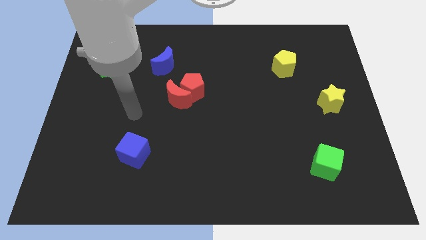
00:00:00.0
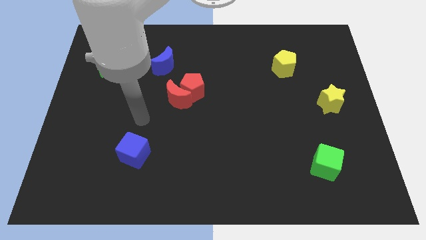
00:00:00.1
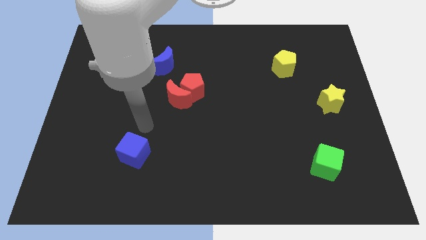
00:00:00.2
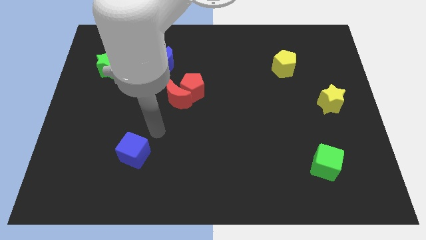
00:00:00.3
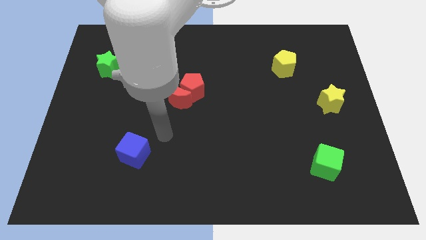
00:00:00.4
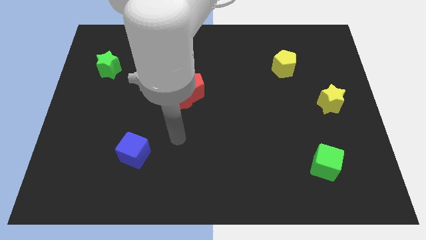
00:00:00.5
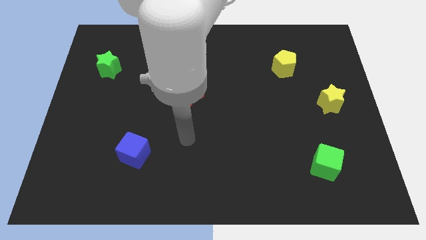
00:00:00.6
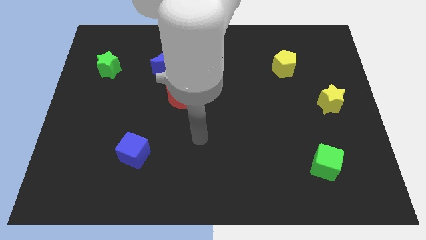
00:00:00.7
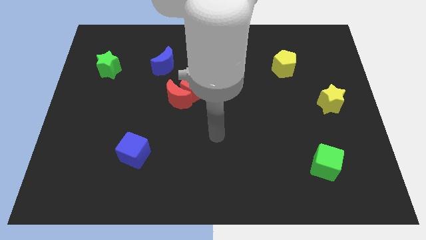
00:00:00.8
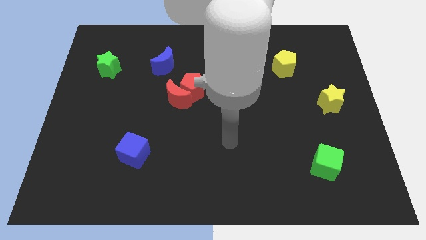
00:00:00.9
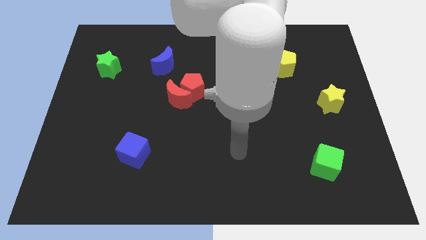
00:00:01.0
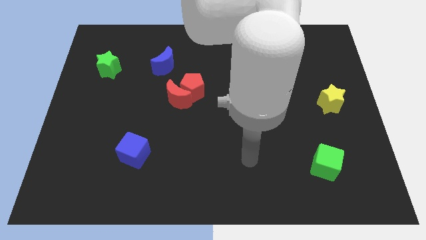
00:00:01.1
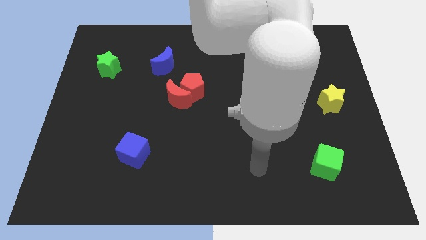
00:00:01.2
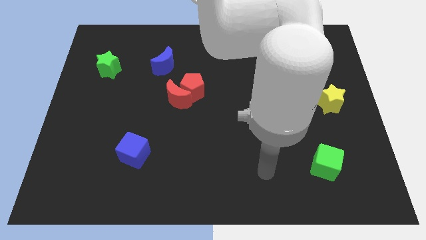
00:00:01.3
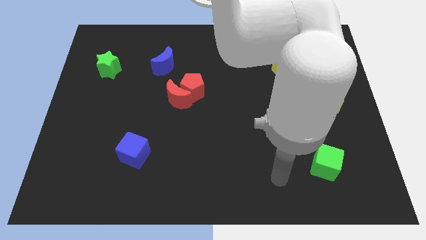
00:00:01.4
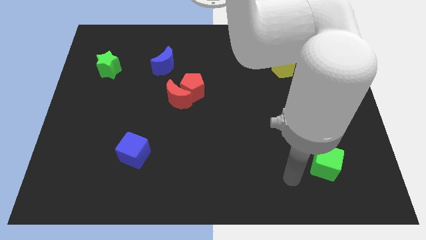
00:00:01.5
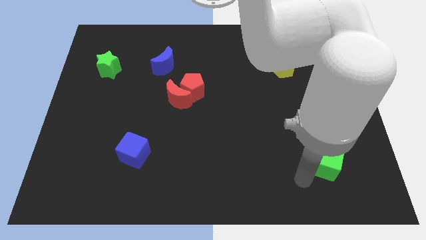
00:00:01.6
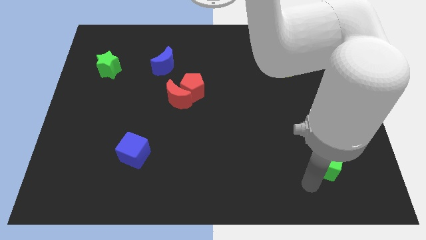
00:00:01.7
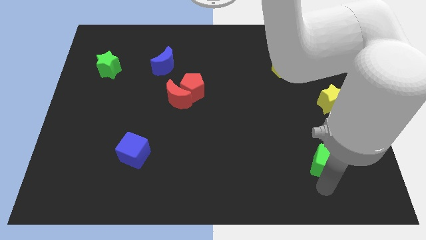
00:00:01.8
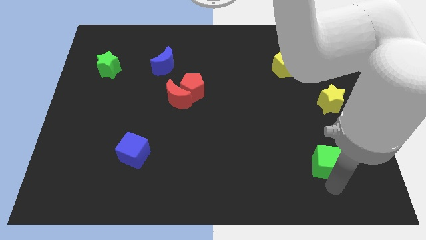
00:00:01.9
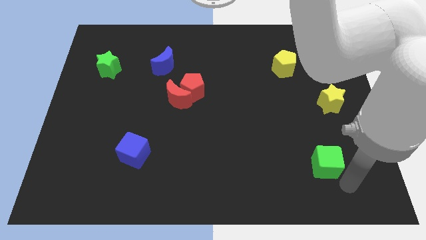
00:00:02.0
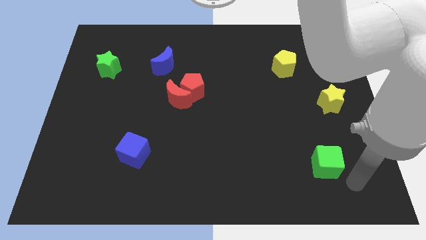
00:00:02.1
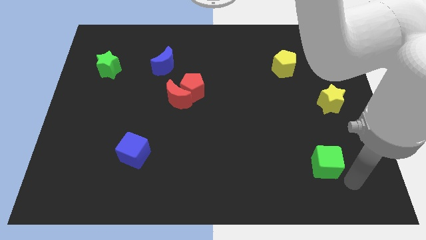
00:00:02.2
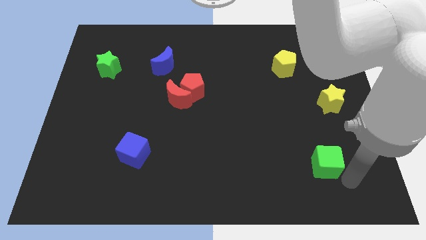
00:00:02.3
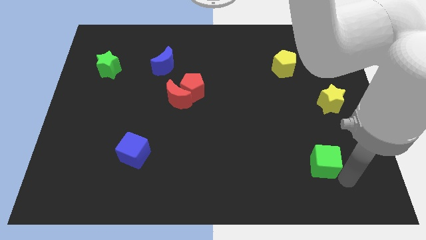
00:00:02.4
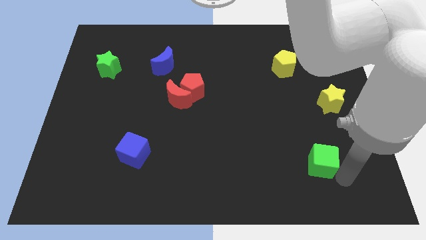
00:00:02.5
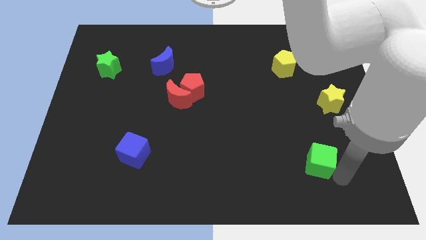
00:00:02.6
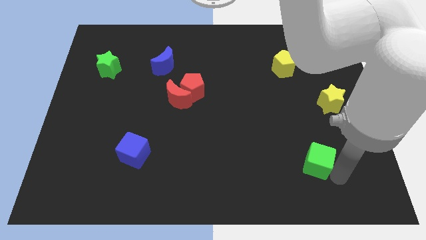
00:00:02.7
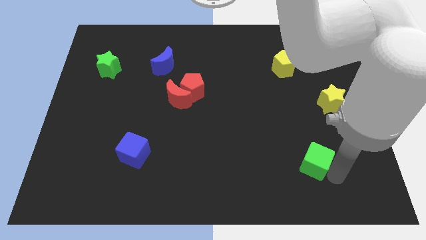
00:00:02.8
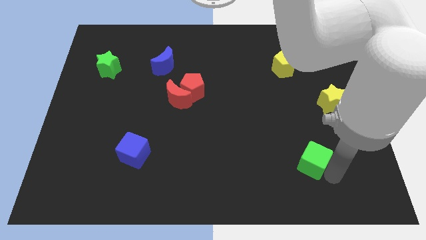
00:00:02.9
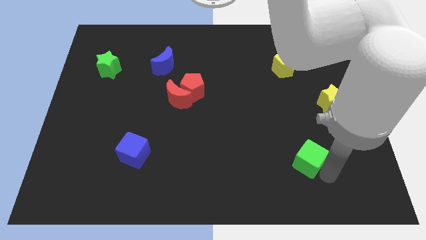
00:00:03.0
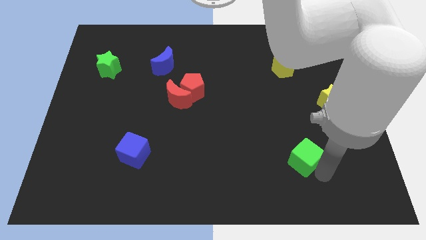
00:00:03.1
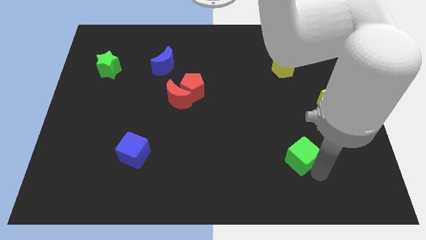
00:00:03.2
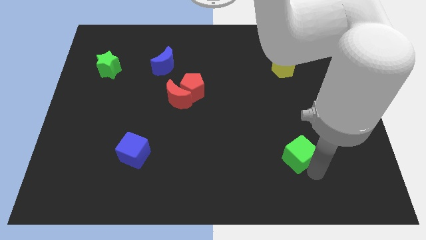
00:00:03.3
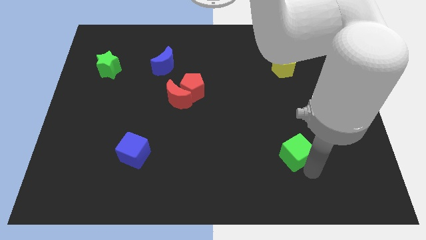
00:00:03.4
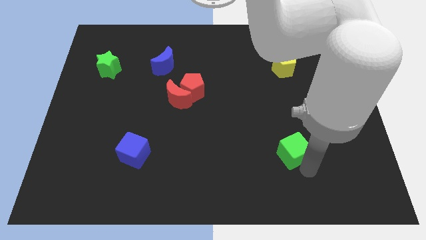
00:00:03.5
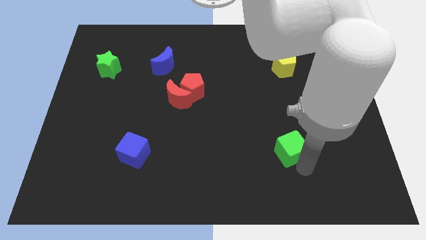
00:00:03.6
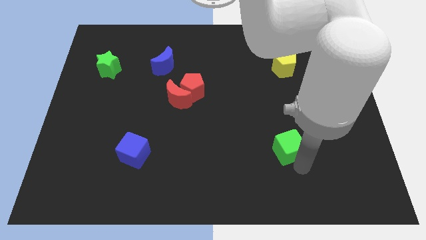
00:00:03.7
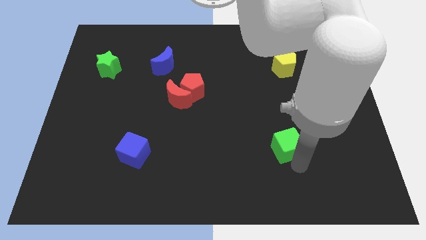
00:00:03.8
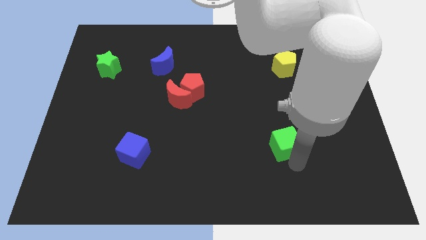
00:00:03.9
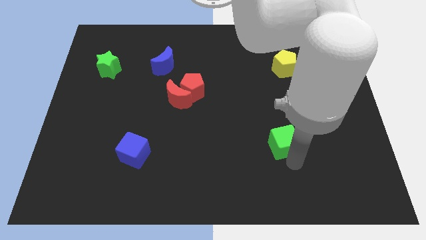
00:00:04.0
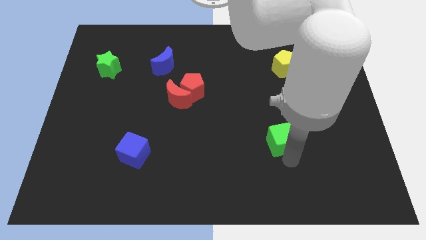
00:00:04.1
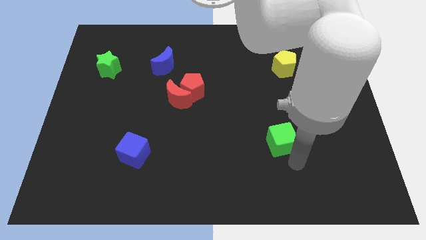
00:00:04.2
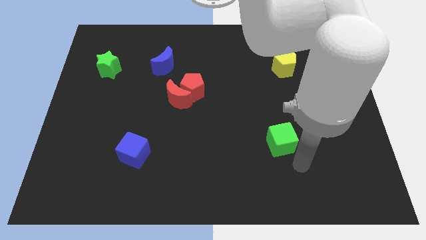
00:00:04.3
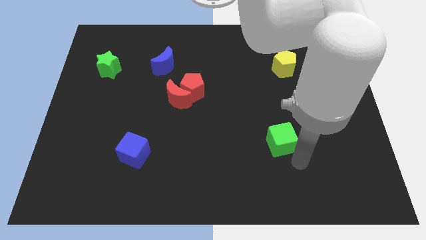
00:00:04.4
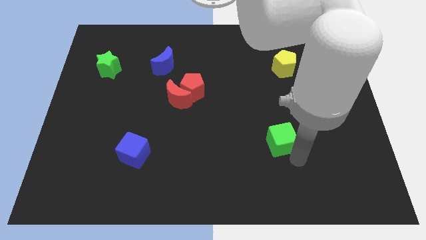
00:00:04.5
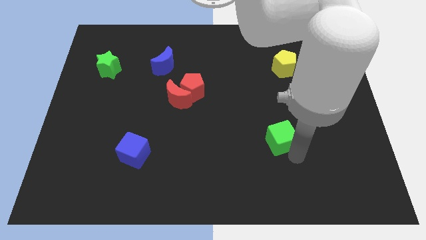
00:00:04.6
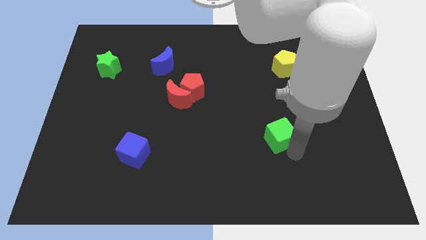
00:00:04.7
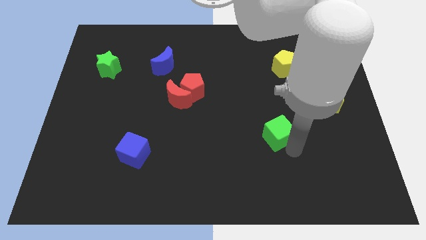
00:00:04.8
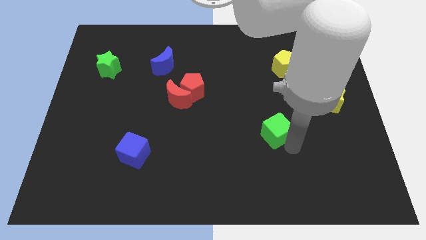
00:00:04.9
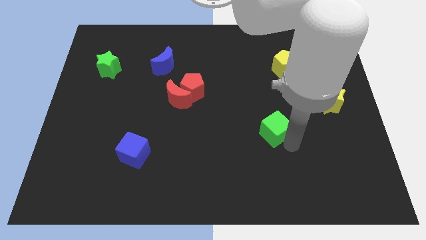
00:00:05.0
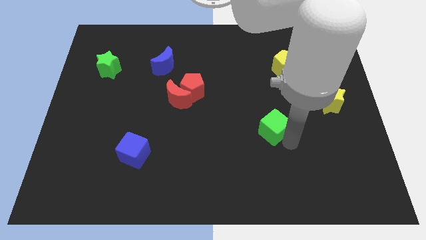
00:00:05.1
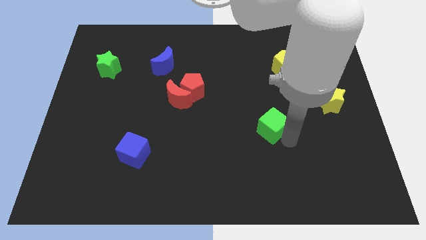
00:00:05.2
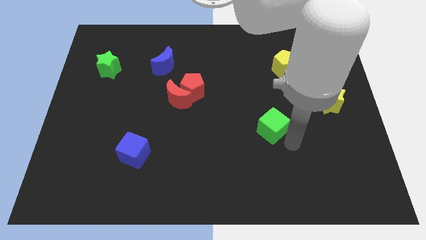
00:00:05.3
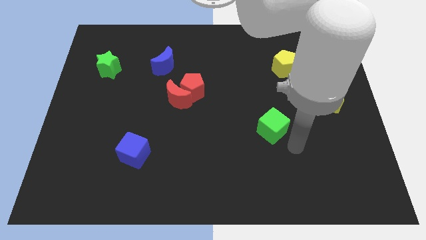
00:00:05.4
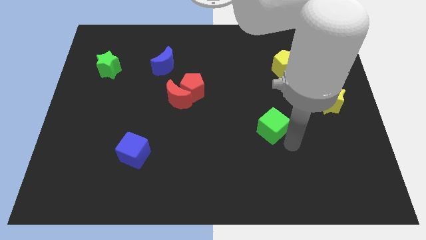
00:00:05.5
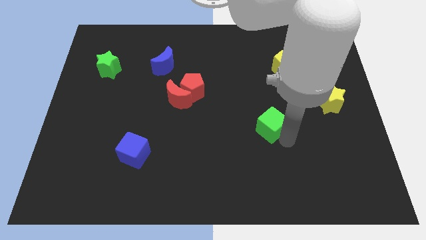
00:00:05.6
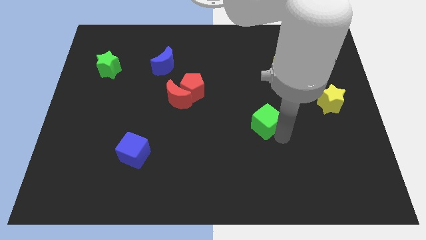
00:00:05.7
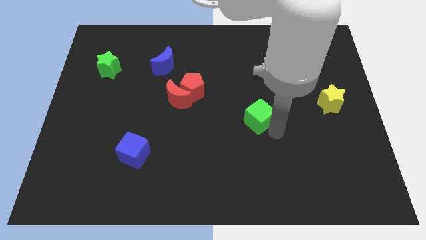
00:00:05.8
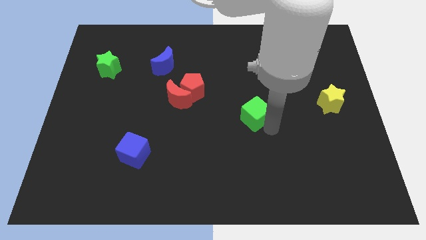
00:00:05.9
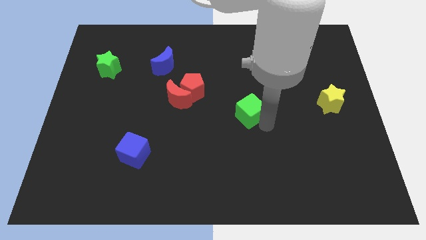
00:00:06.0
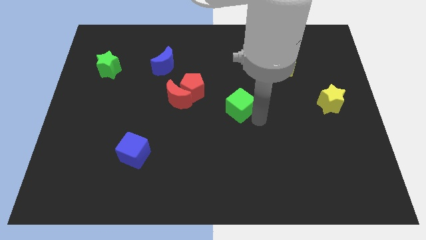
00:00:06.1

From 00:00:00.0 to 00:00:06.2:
slide the green cube right of the red moon

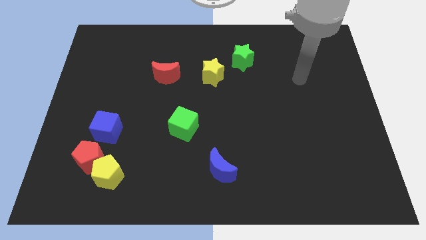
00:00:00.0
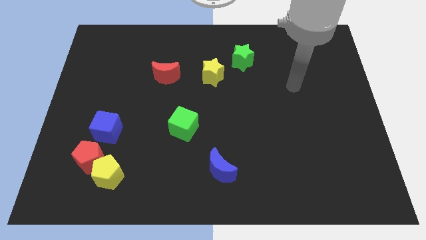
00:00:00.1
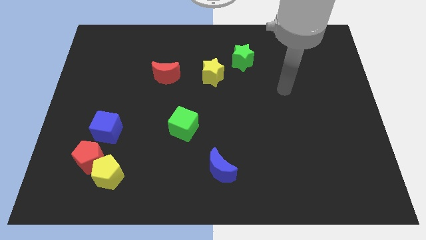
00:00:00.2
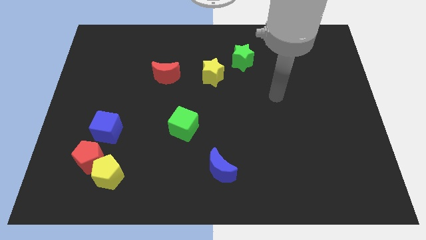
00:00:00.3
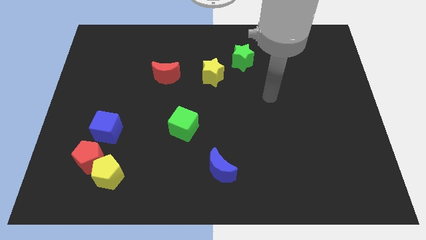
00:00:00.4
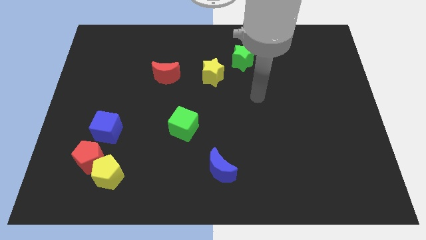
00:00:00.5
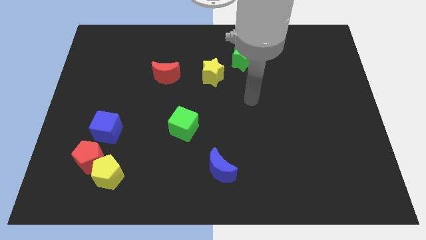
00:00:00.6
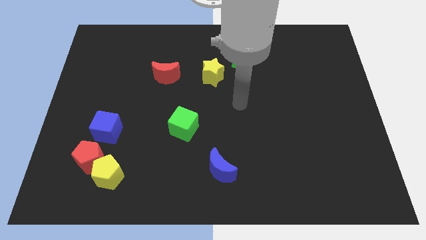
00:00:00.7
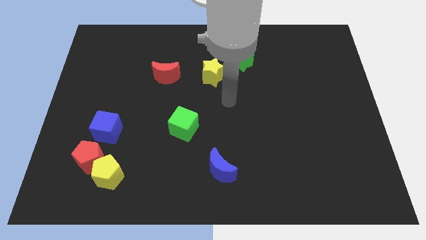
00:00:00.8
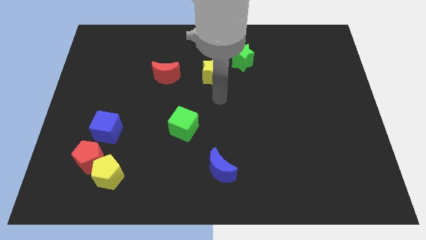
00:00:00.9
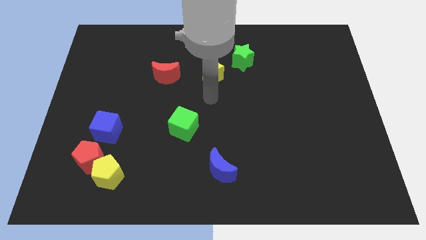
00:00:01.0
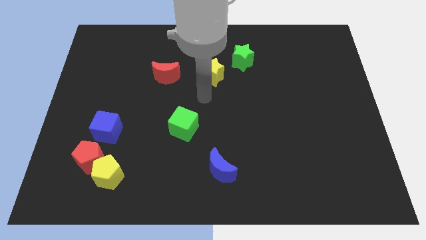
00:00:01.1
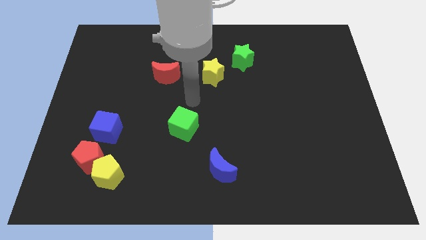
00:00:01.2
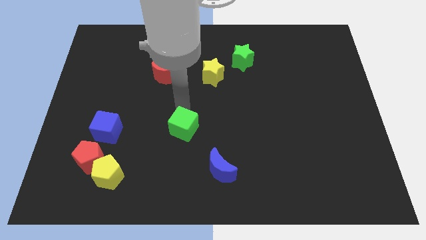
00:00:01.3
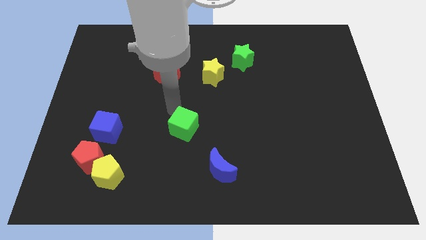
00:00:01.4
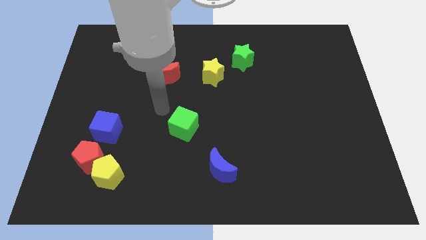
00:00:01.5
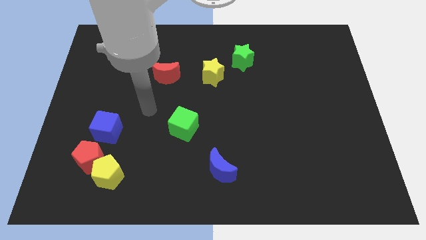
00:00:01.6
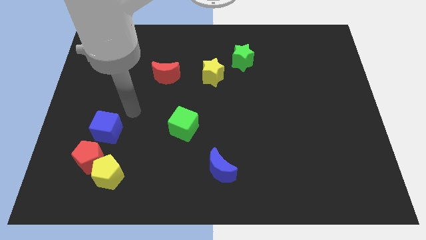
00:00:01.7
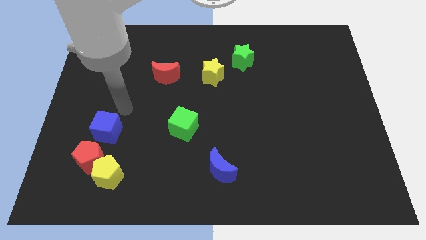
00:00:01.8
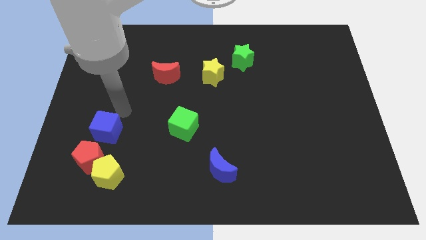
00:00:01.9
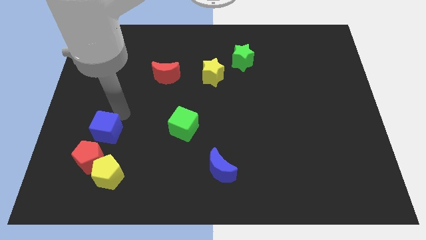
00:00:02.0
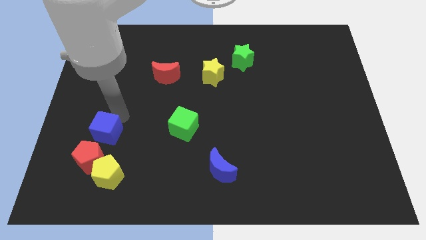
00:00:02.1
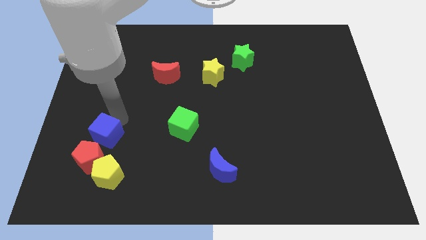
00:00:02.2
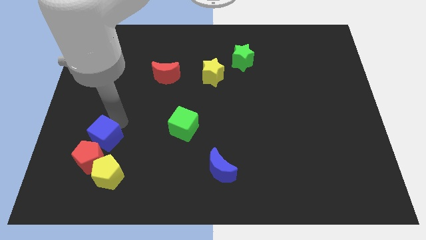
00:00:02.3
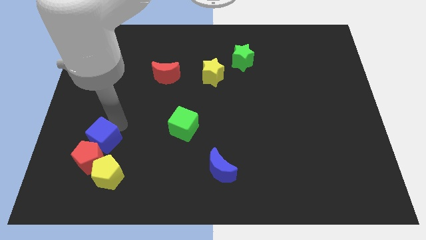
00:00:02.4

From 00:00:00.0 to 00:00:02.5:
put the blue cube diagonally up and to the left of the yellow pentagon
